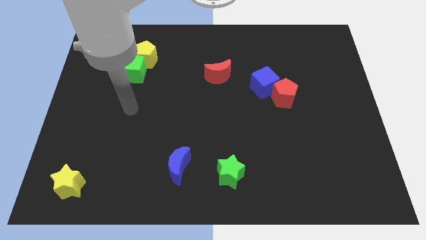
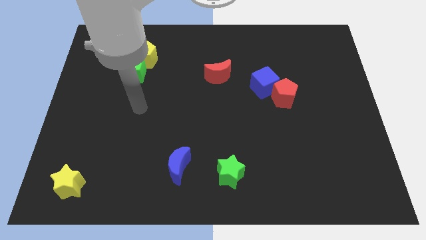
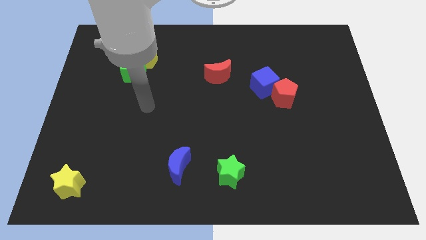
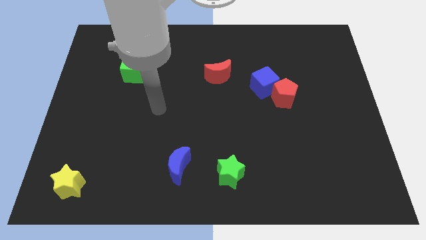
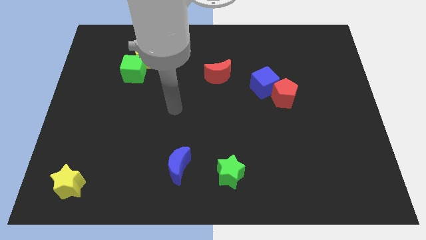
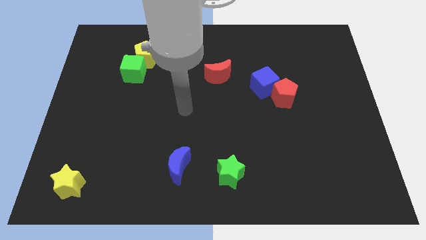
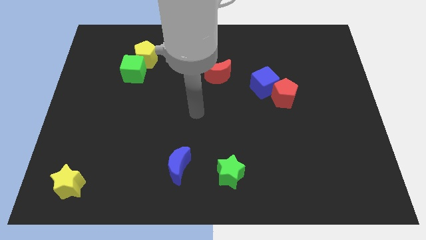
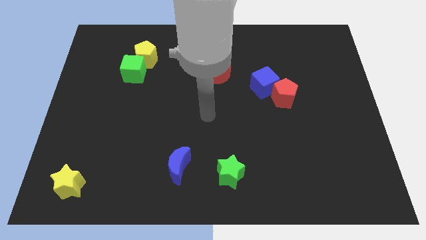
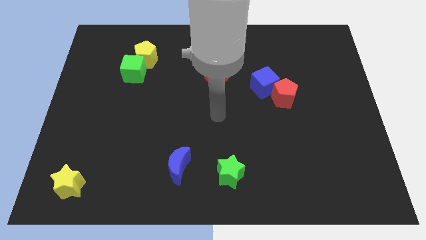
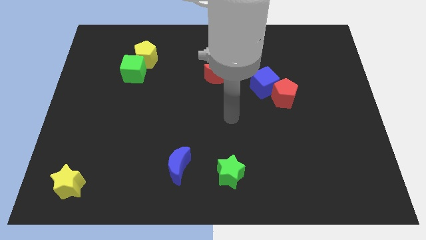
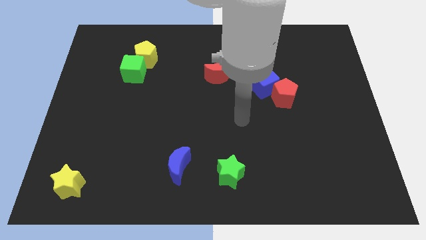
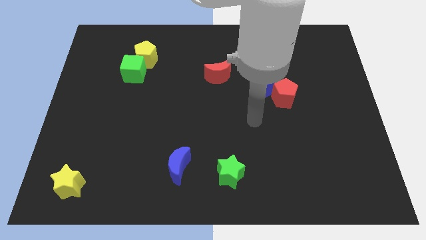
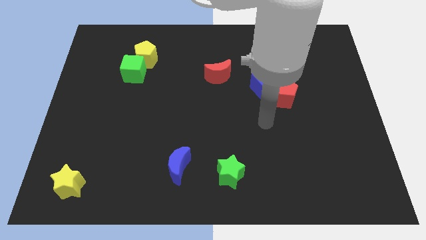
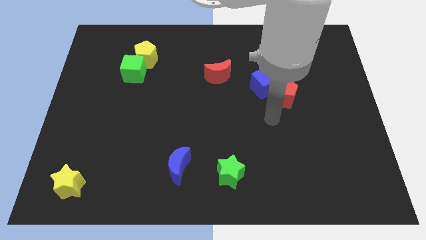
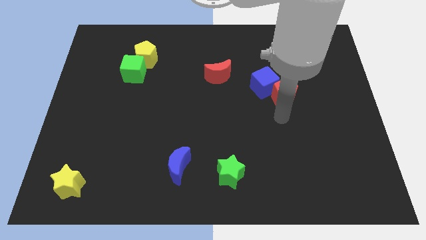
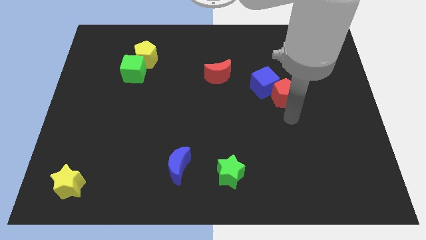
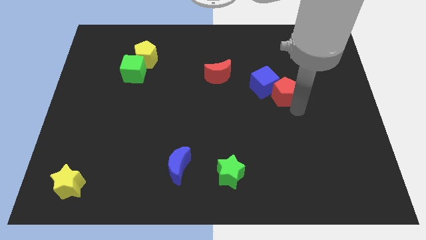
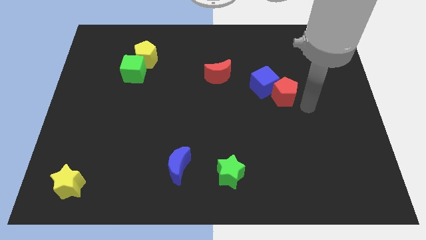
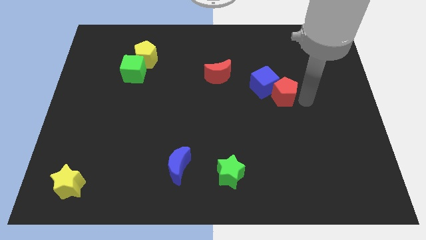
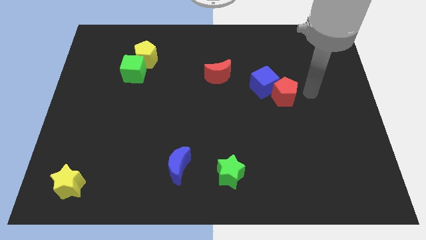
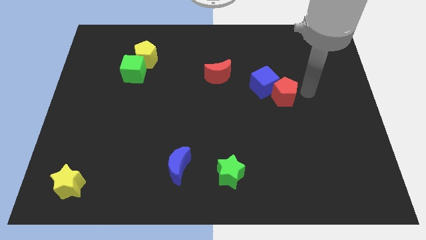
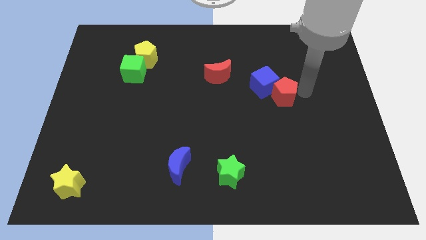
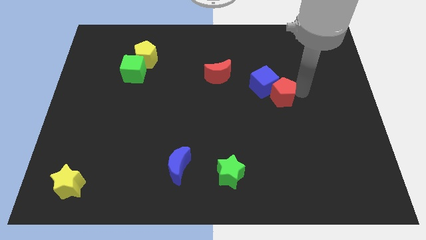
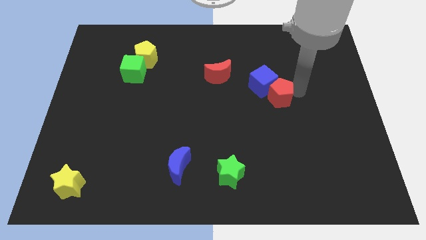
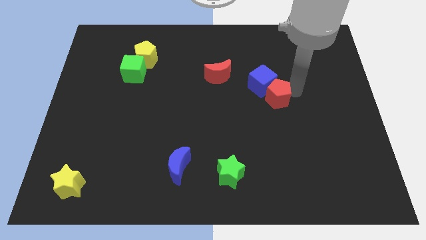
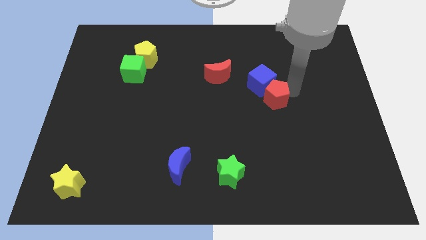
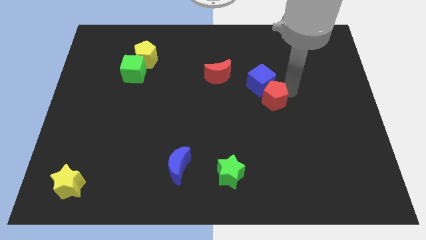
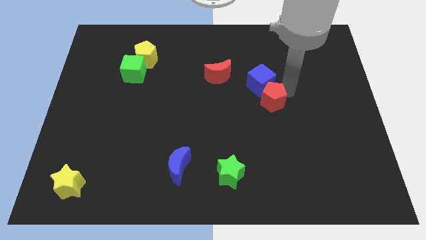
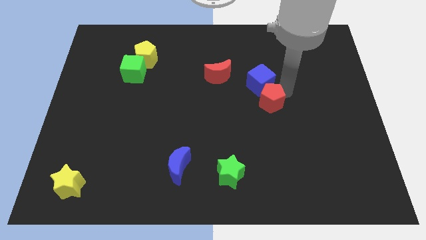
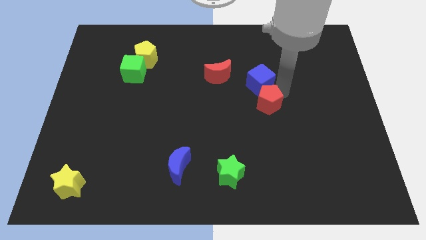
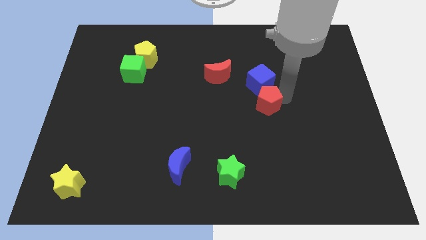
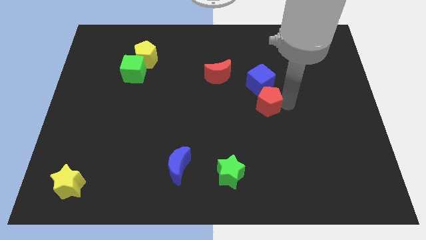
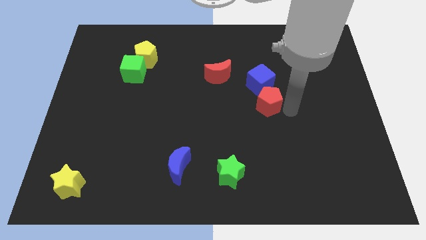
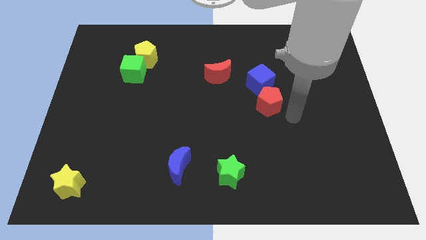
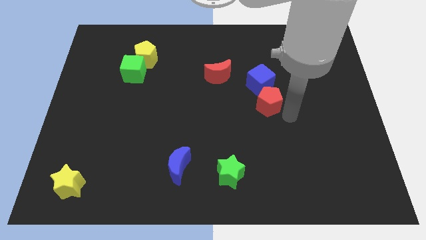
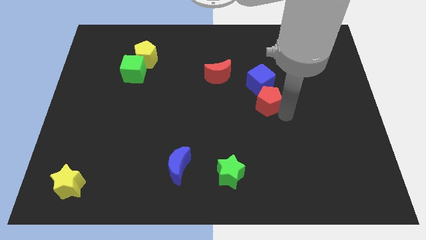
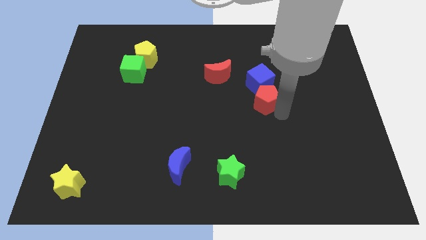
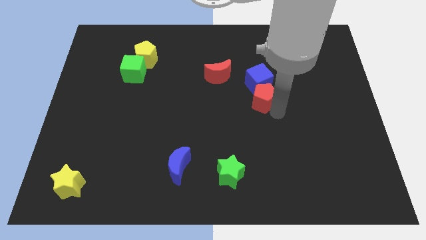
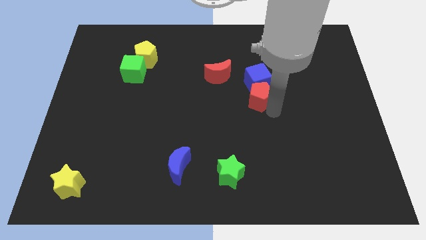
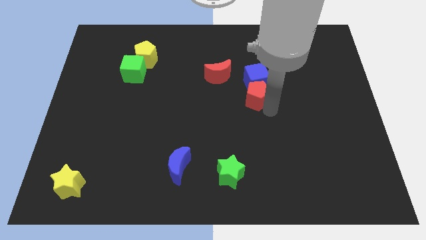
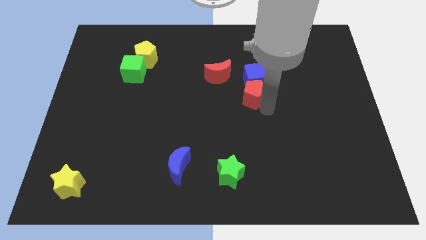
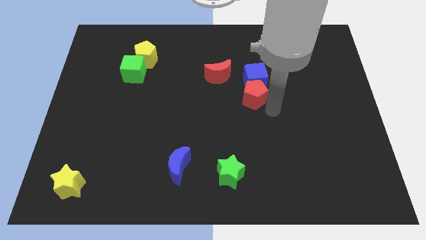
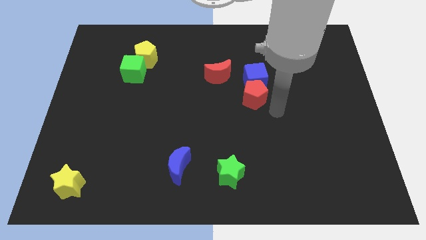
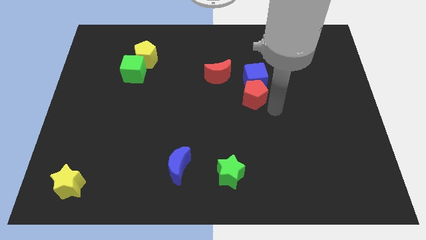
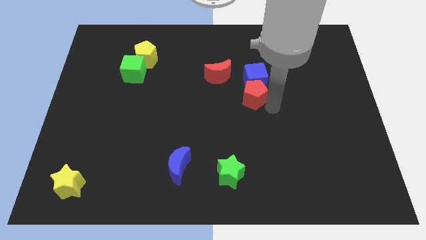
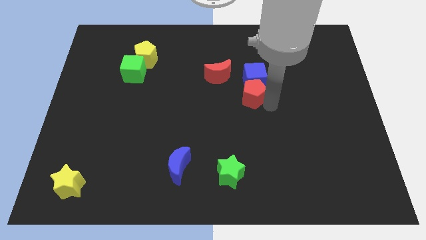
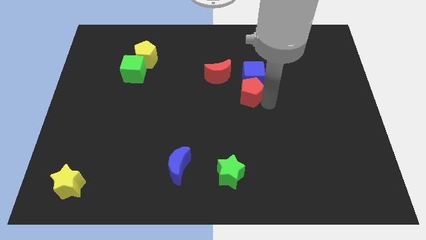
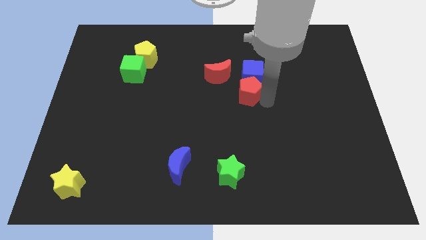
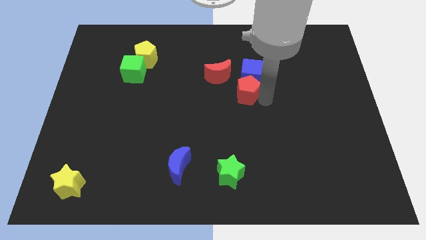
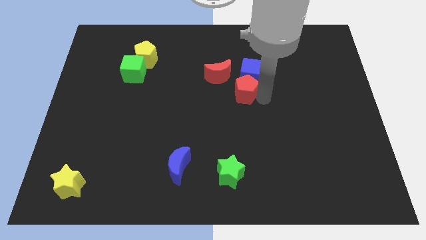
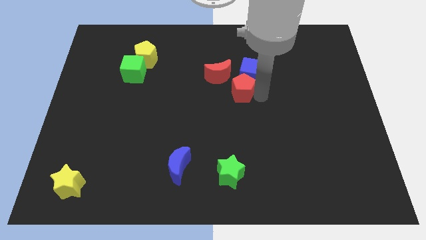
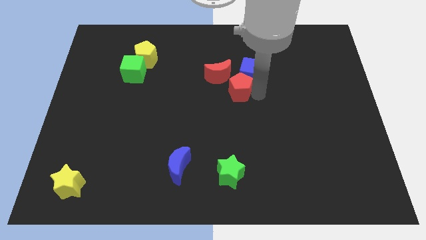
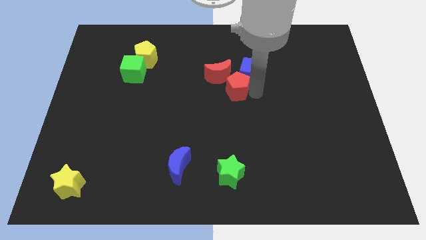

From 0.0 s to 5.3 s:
put the red pentagon close to the red moon

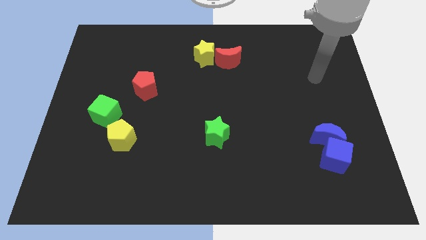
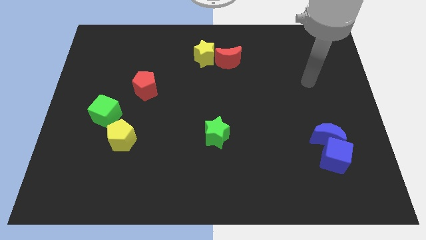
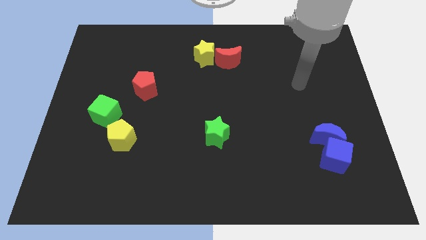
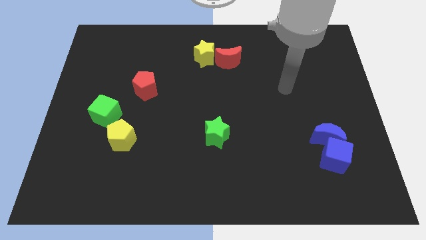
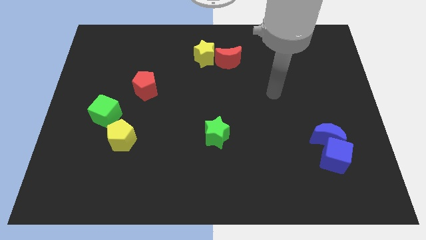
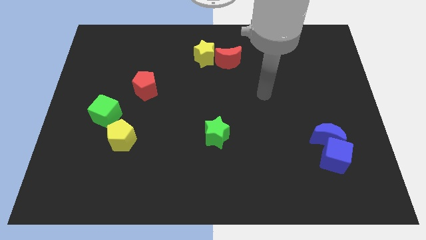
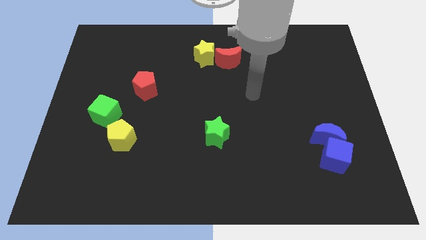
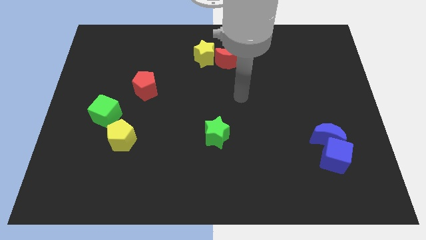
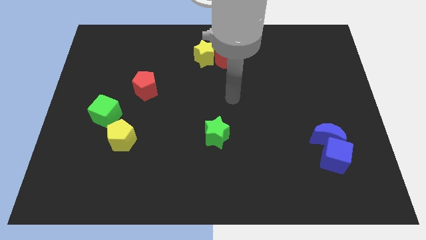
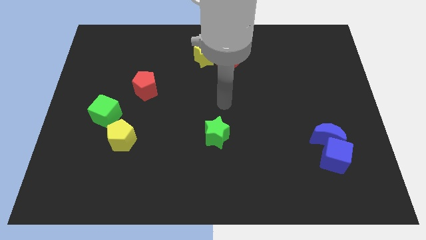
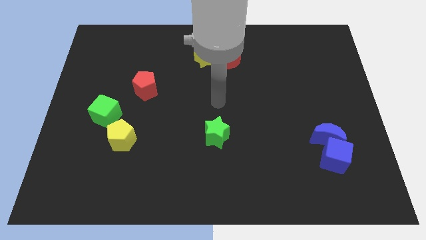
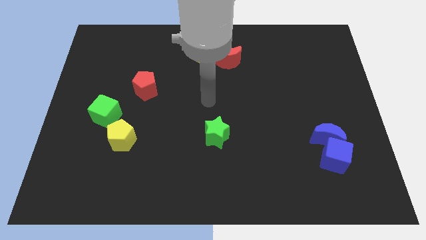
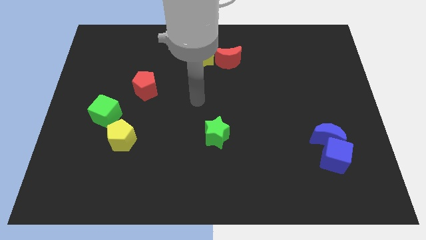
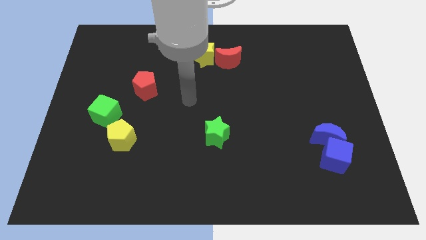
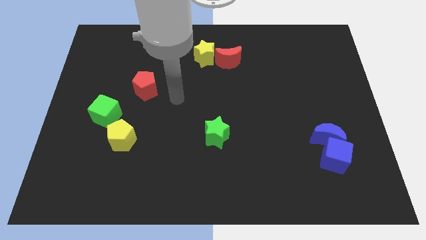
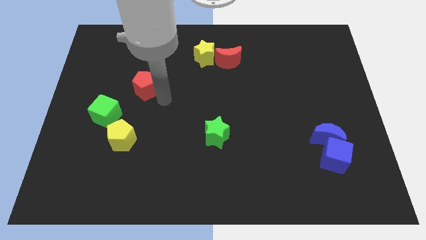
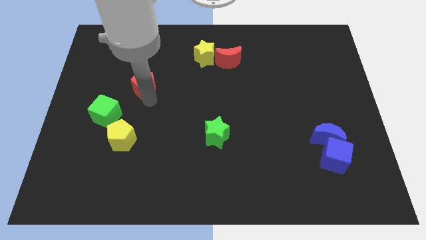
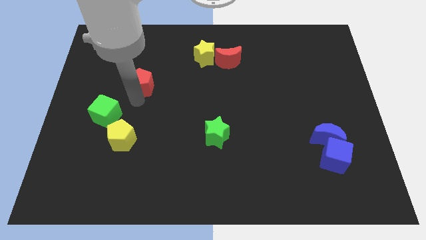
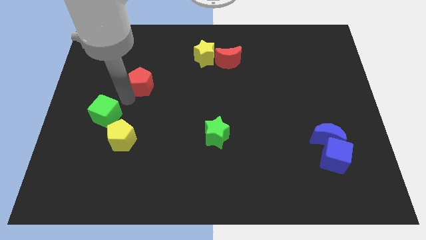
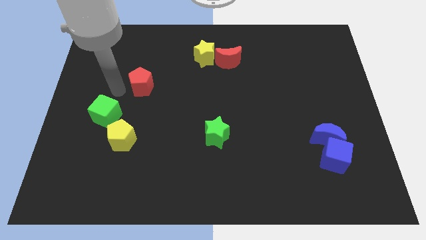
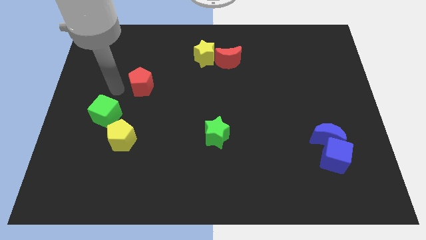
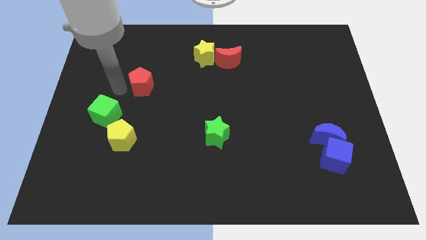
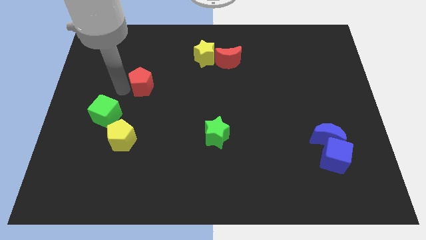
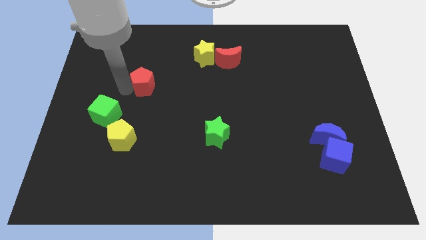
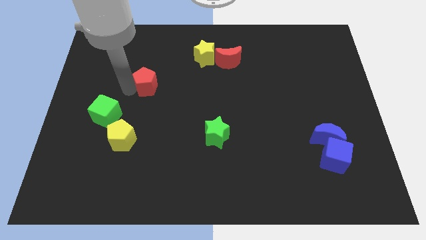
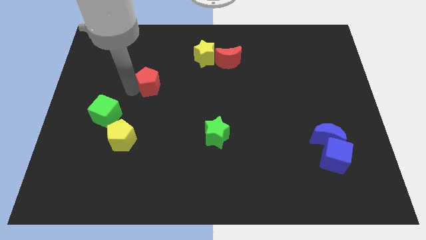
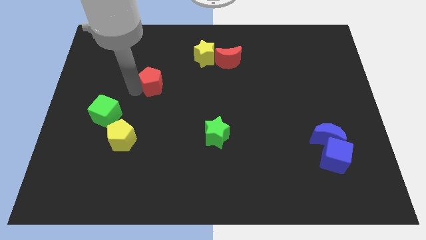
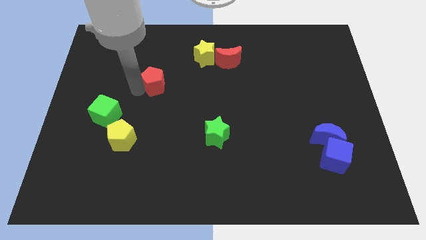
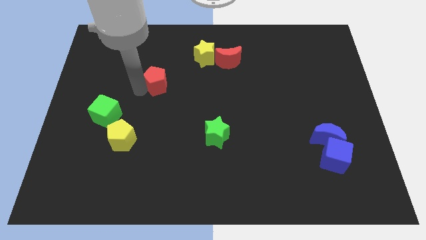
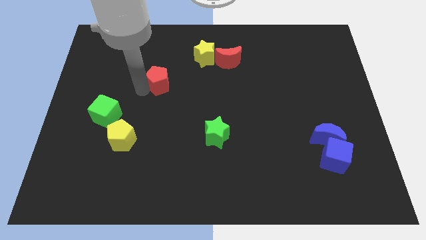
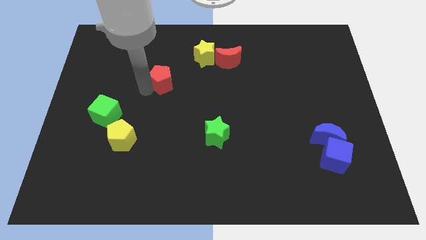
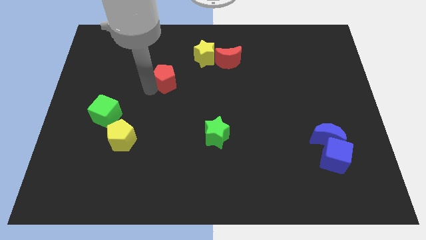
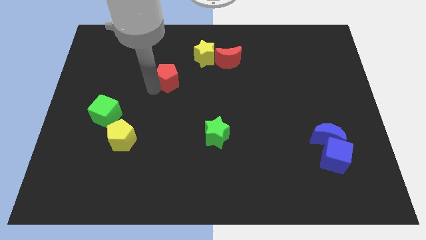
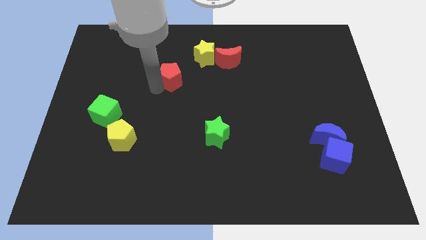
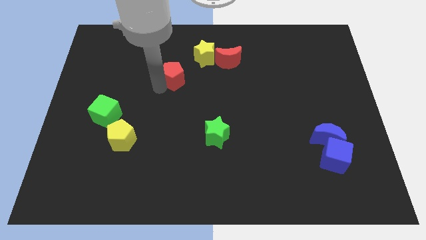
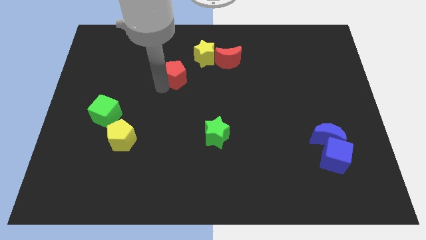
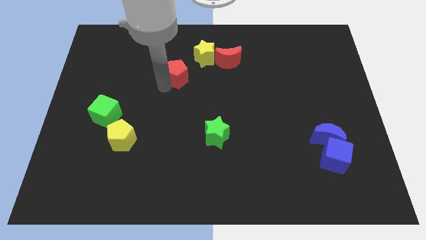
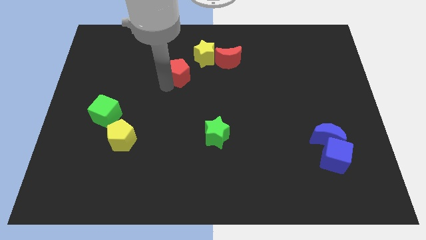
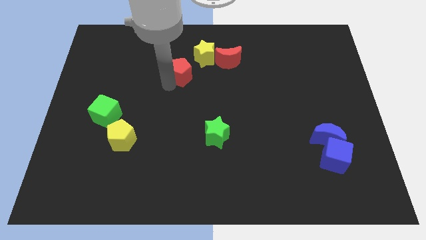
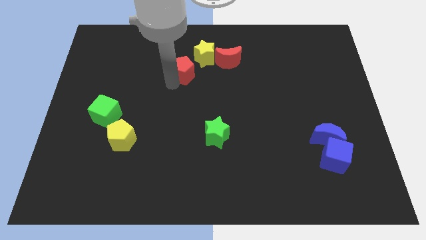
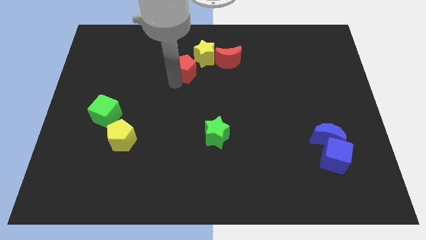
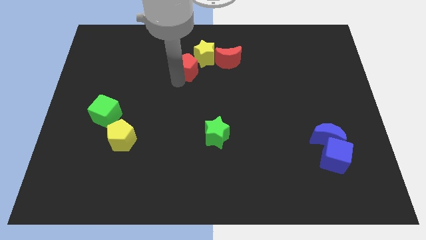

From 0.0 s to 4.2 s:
push the red pentagon next to the yellow star
